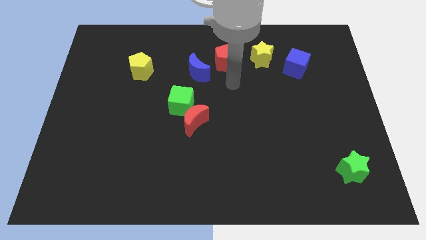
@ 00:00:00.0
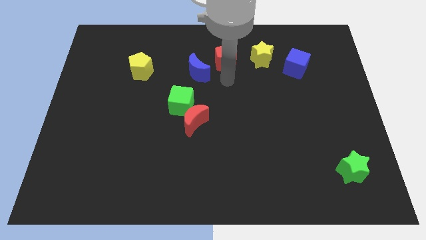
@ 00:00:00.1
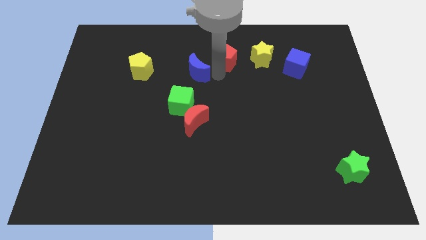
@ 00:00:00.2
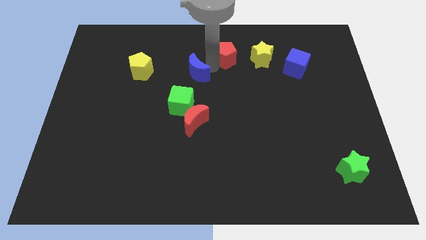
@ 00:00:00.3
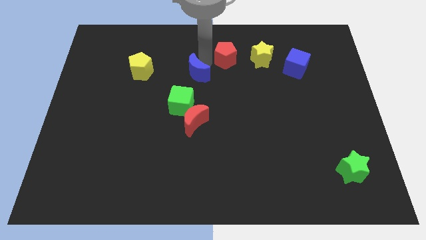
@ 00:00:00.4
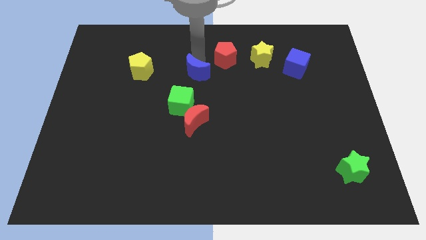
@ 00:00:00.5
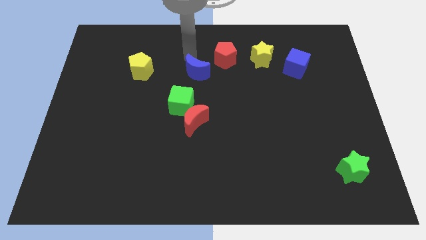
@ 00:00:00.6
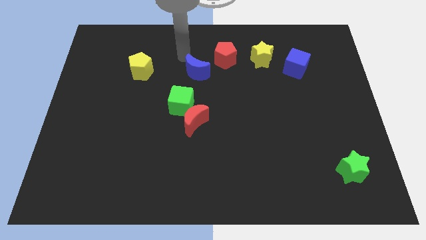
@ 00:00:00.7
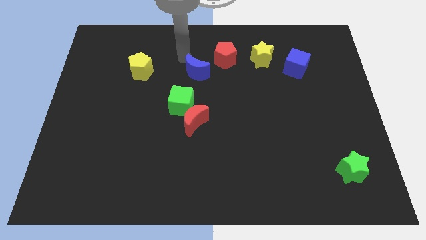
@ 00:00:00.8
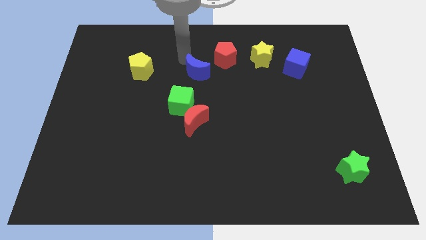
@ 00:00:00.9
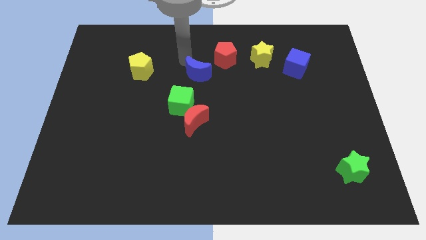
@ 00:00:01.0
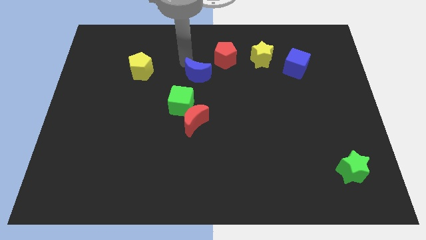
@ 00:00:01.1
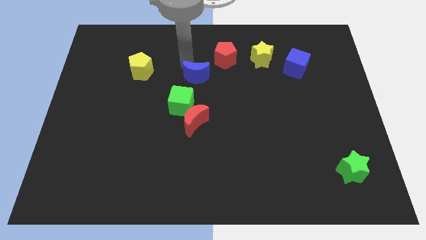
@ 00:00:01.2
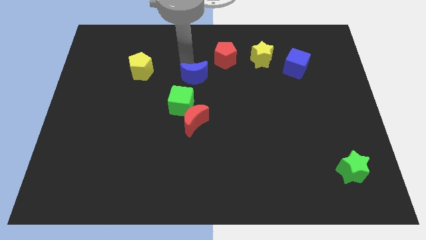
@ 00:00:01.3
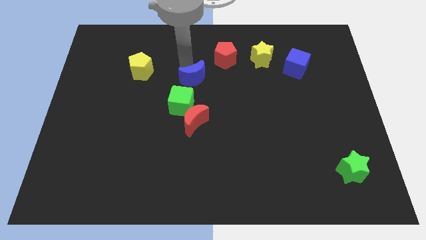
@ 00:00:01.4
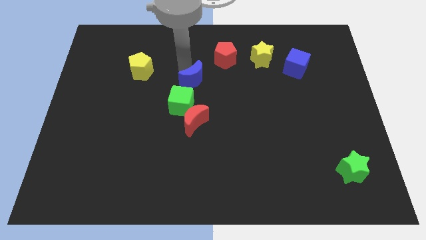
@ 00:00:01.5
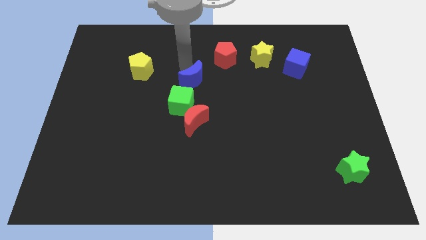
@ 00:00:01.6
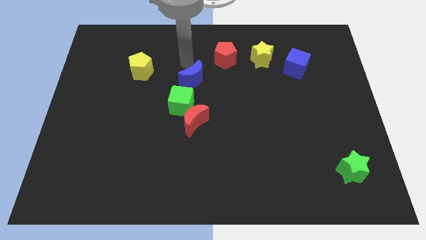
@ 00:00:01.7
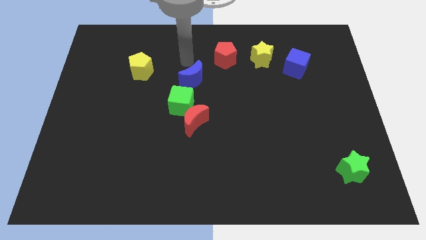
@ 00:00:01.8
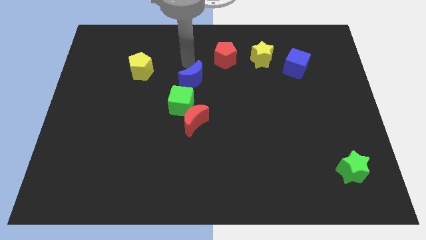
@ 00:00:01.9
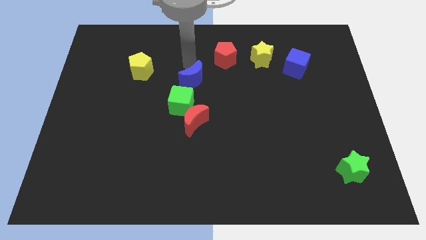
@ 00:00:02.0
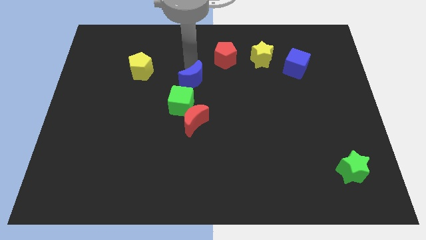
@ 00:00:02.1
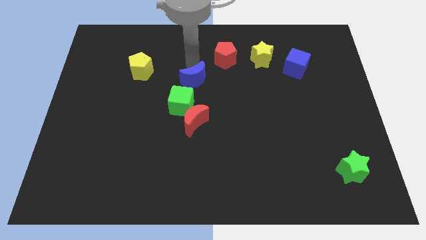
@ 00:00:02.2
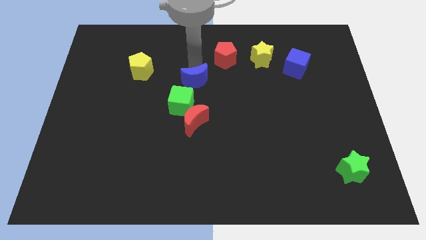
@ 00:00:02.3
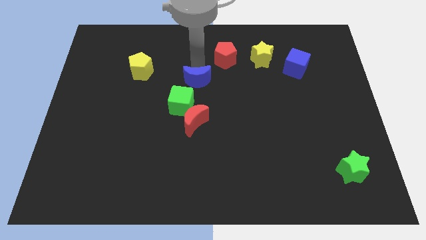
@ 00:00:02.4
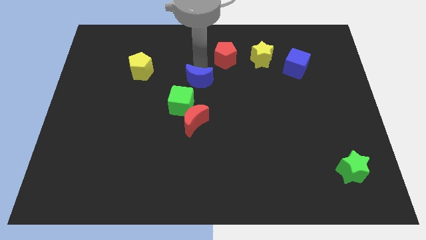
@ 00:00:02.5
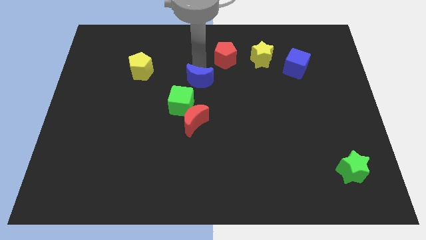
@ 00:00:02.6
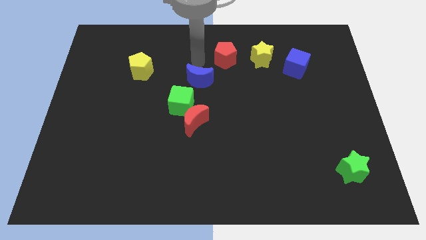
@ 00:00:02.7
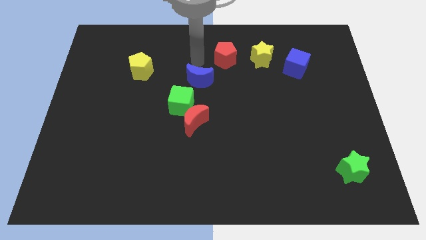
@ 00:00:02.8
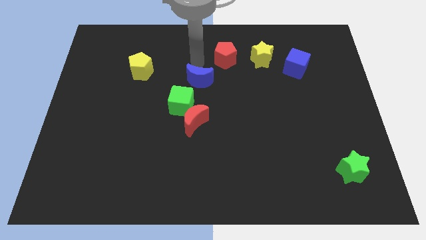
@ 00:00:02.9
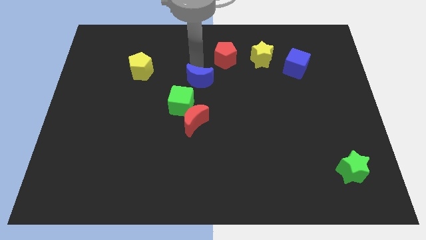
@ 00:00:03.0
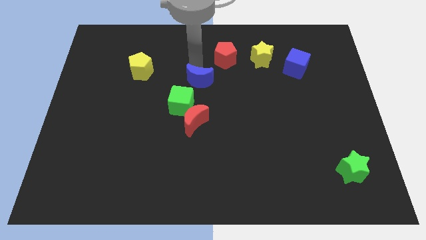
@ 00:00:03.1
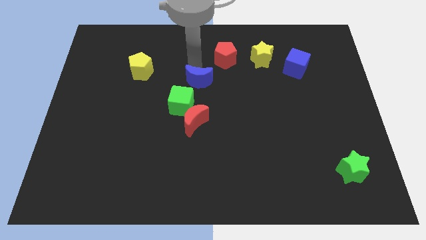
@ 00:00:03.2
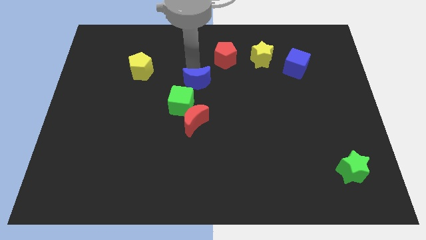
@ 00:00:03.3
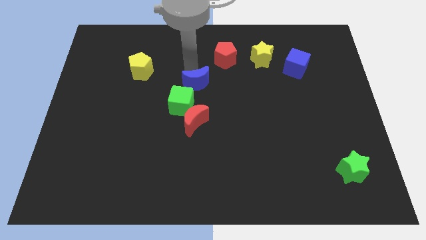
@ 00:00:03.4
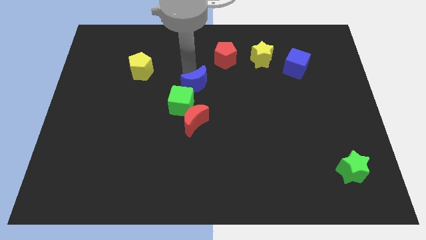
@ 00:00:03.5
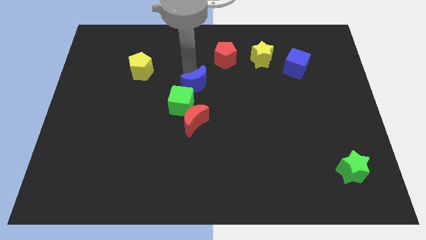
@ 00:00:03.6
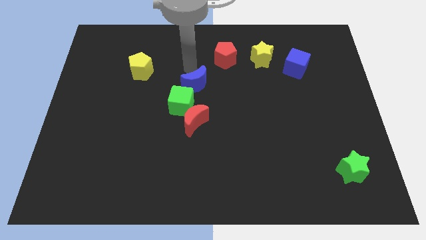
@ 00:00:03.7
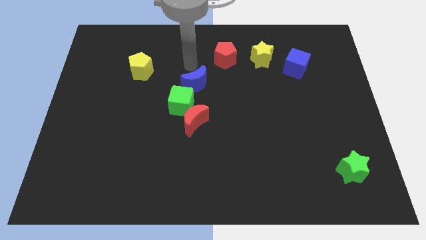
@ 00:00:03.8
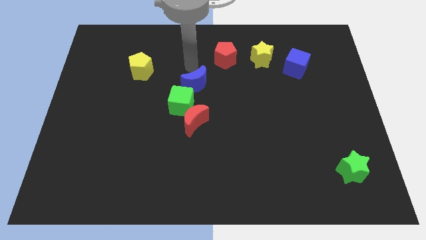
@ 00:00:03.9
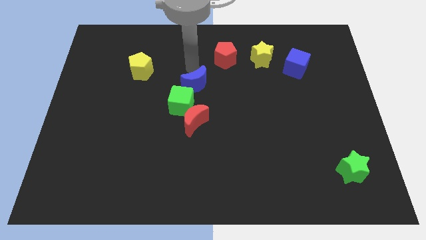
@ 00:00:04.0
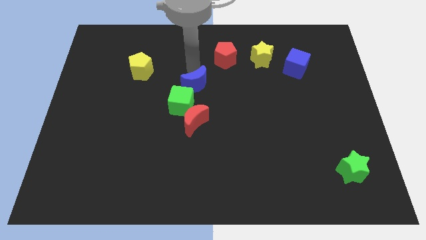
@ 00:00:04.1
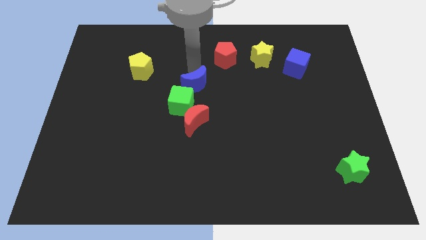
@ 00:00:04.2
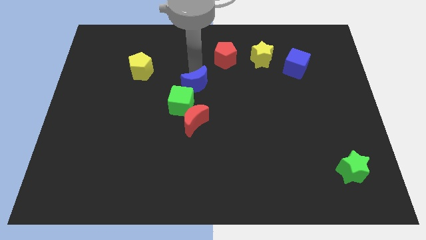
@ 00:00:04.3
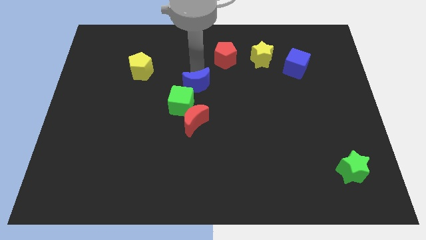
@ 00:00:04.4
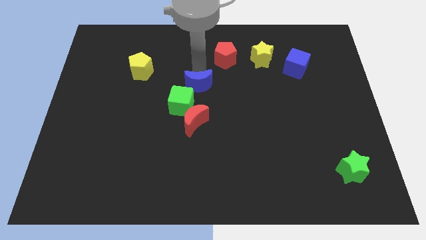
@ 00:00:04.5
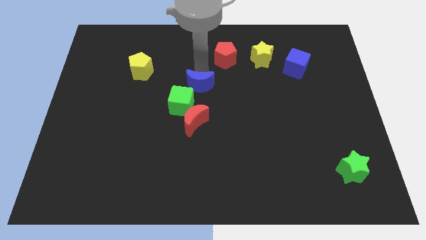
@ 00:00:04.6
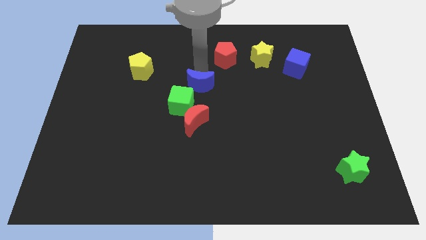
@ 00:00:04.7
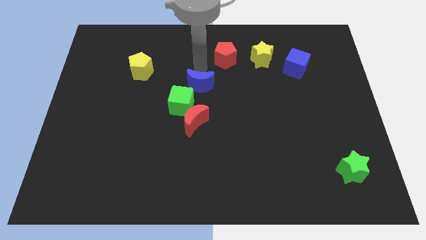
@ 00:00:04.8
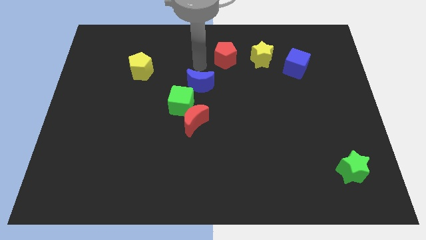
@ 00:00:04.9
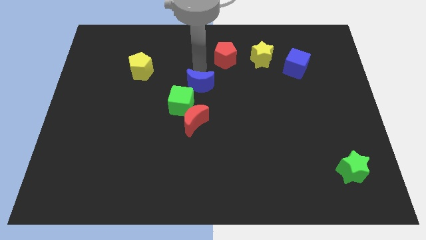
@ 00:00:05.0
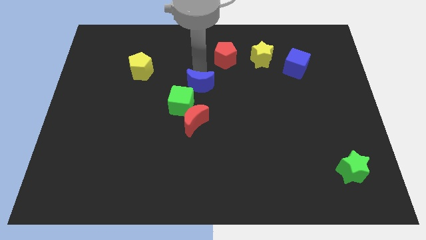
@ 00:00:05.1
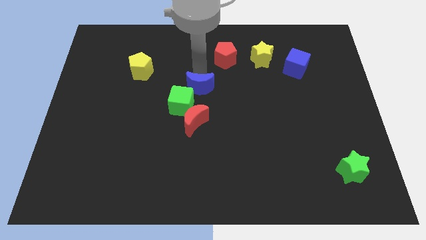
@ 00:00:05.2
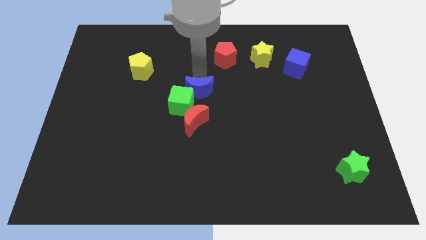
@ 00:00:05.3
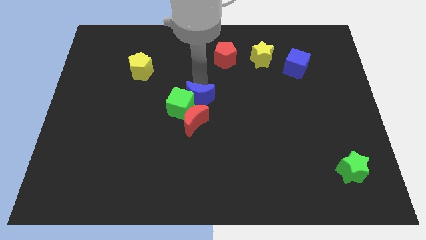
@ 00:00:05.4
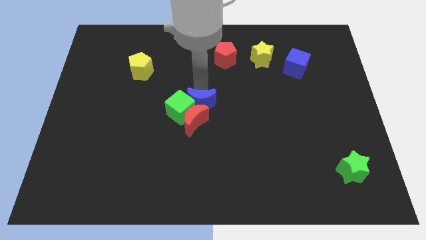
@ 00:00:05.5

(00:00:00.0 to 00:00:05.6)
push the blue moon to the red moon

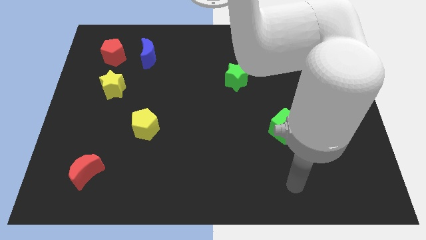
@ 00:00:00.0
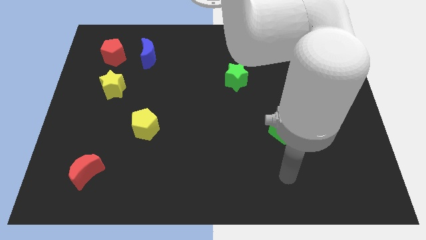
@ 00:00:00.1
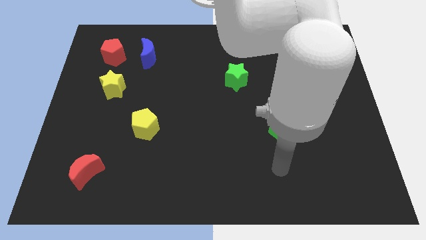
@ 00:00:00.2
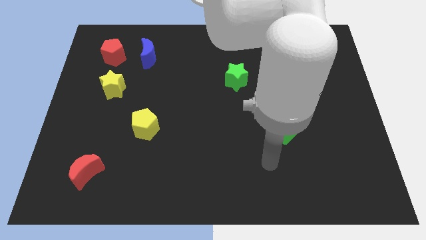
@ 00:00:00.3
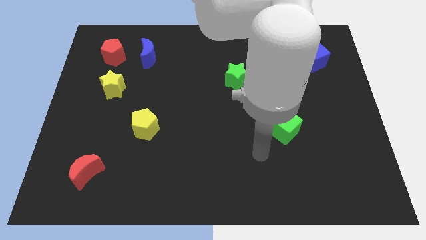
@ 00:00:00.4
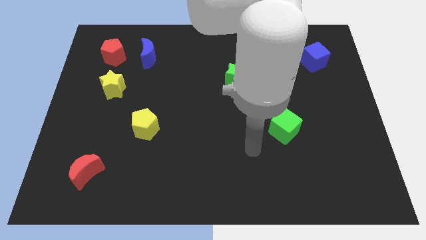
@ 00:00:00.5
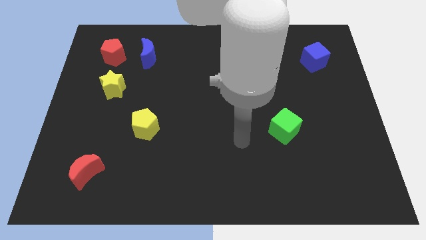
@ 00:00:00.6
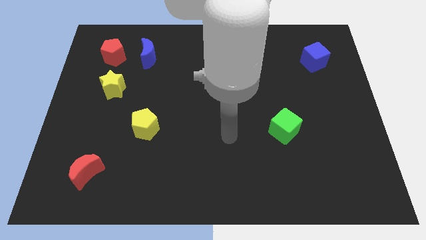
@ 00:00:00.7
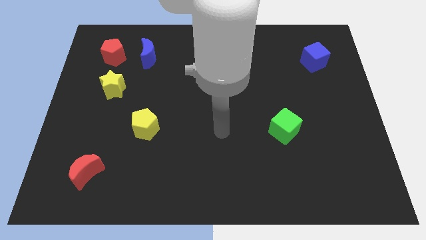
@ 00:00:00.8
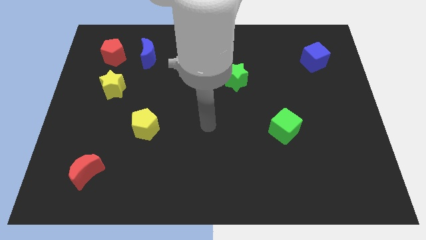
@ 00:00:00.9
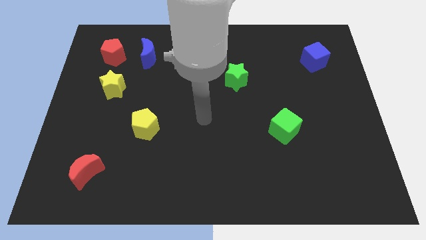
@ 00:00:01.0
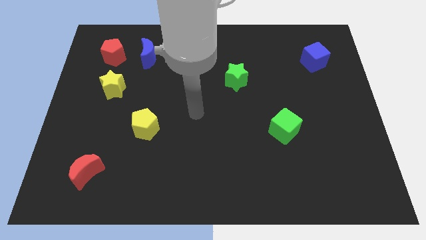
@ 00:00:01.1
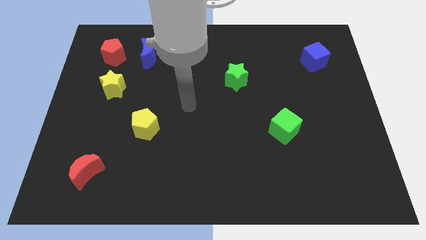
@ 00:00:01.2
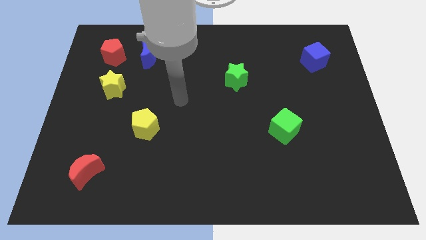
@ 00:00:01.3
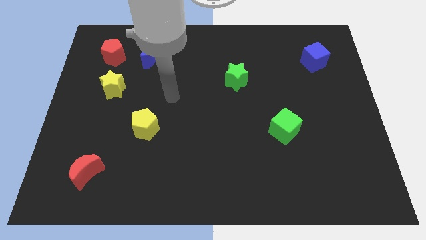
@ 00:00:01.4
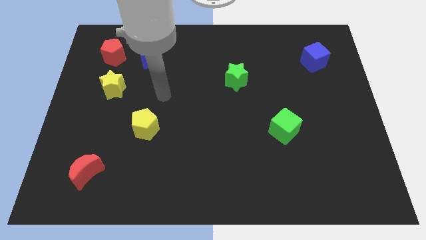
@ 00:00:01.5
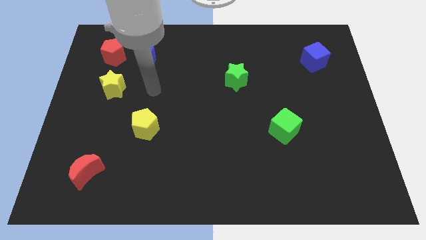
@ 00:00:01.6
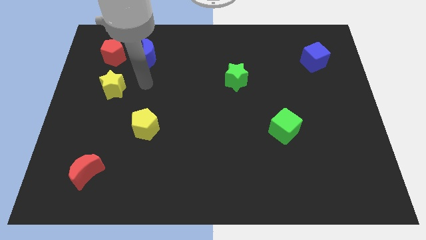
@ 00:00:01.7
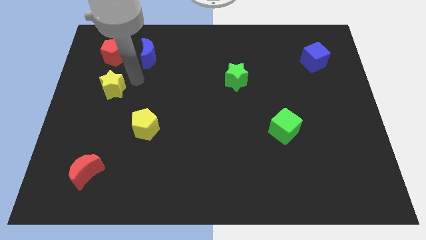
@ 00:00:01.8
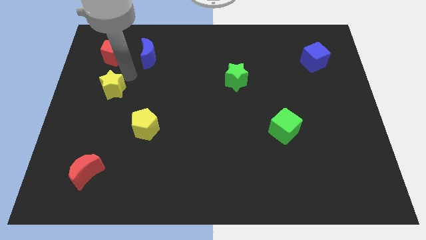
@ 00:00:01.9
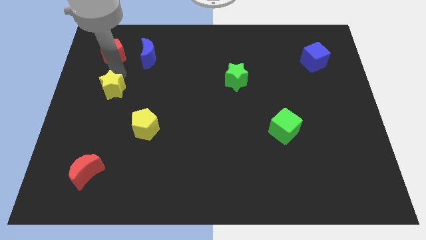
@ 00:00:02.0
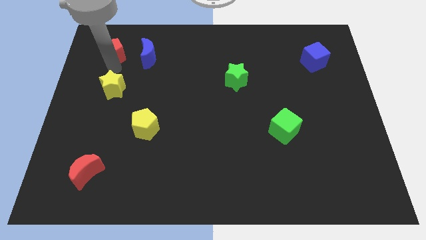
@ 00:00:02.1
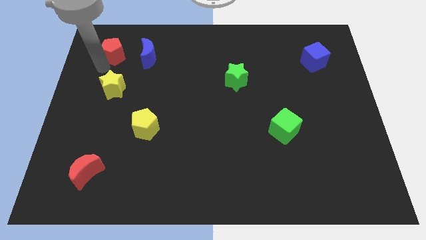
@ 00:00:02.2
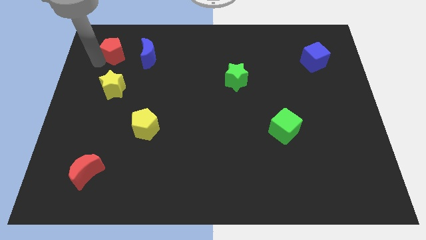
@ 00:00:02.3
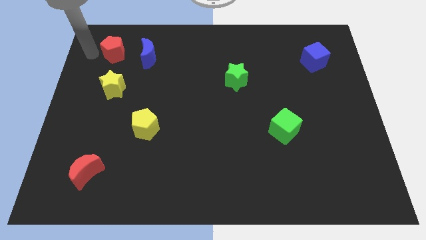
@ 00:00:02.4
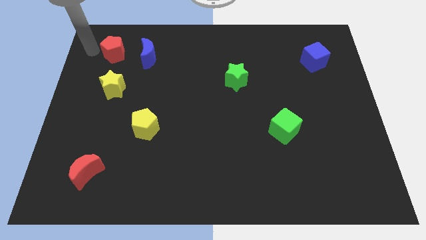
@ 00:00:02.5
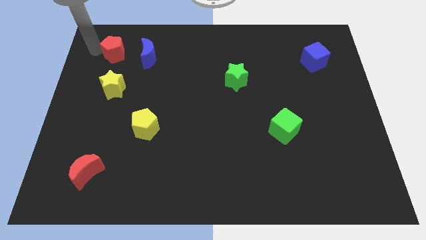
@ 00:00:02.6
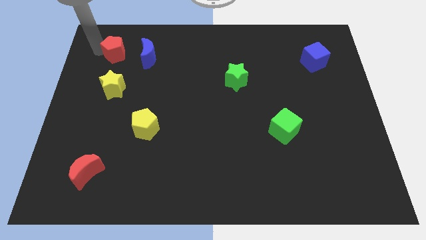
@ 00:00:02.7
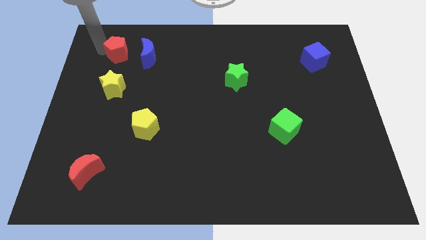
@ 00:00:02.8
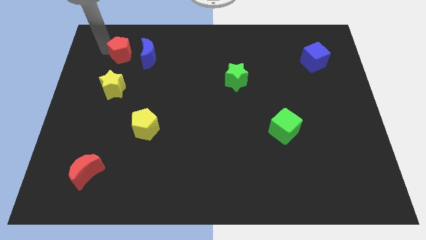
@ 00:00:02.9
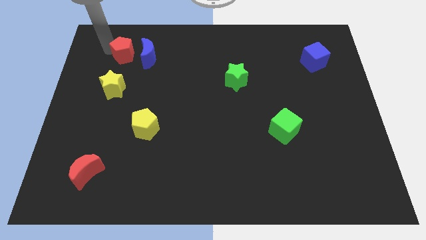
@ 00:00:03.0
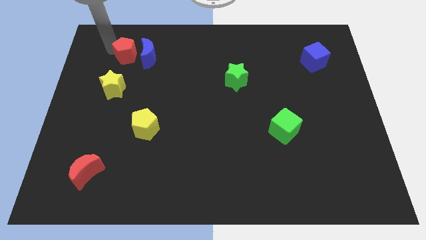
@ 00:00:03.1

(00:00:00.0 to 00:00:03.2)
slide the red pentagon towards the blue moon
